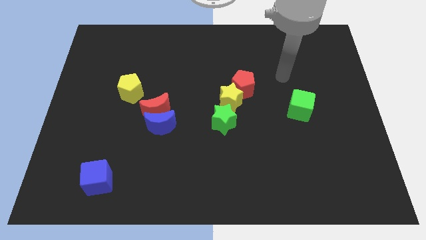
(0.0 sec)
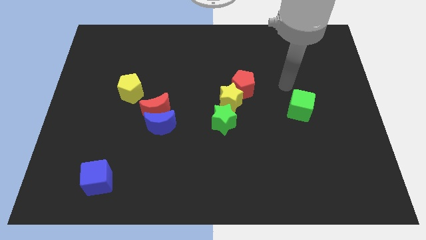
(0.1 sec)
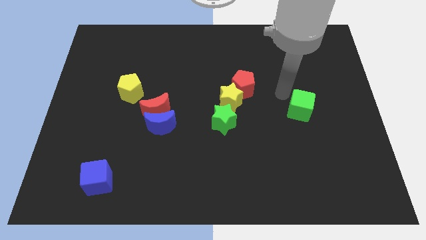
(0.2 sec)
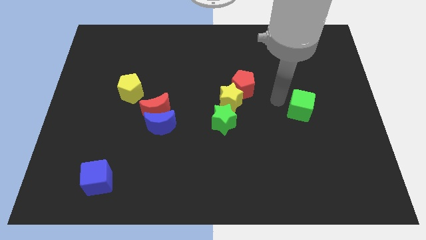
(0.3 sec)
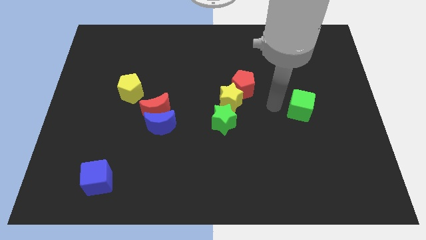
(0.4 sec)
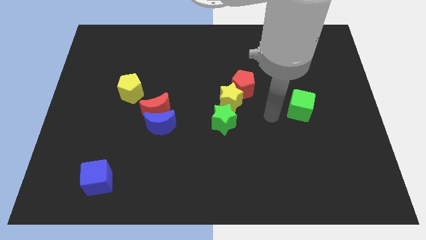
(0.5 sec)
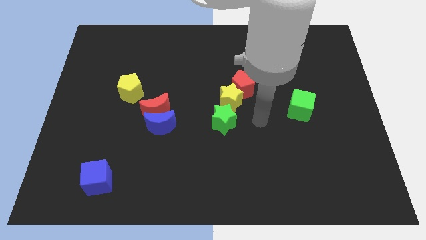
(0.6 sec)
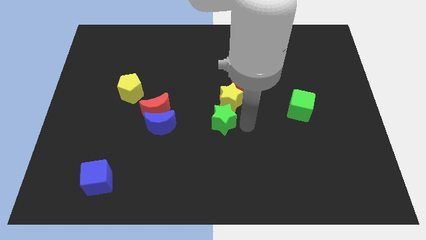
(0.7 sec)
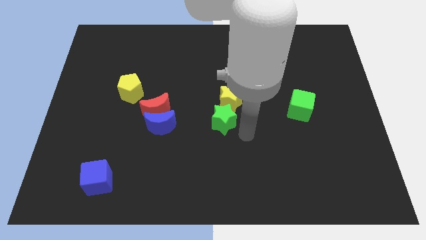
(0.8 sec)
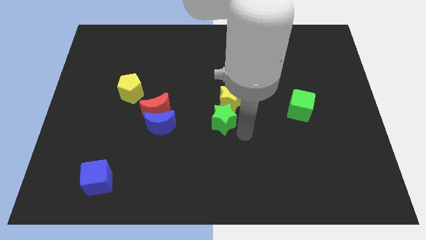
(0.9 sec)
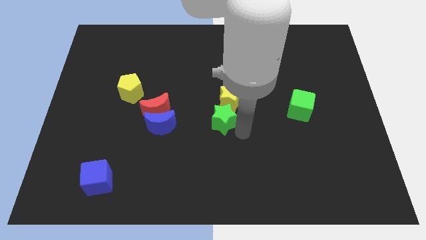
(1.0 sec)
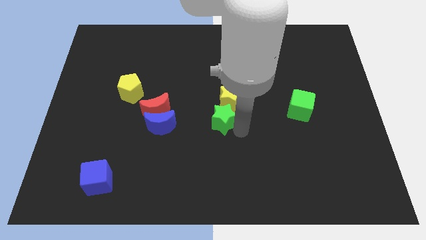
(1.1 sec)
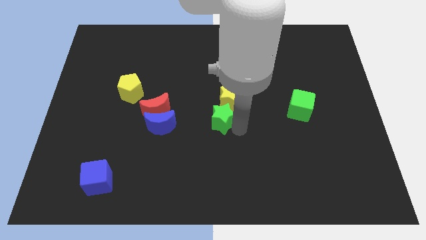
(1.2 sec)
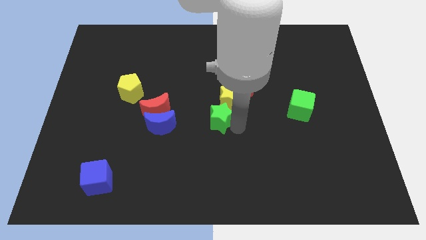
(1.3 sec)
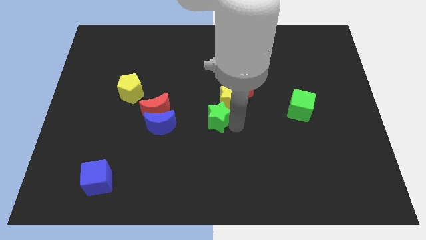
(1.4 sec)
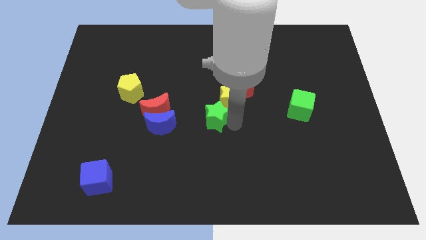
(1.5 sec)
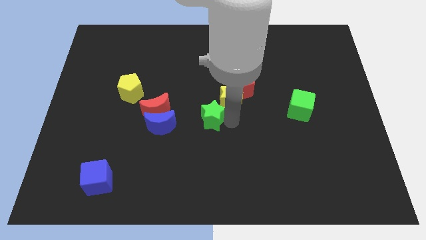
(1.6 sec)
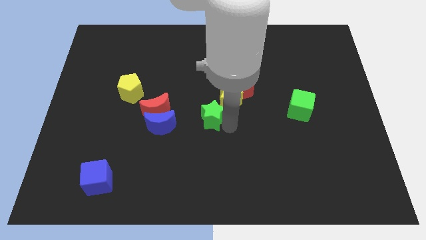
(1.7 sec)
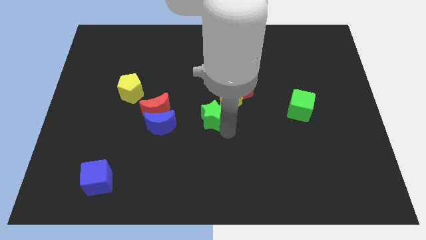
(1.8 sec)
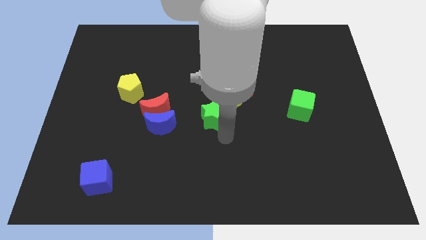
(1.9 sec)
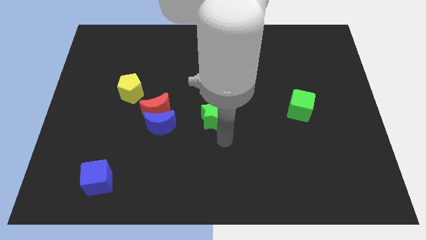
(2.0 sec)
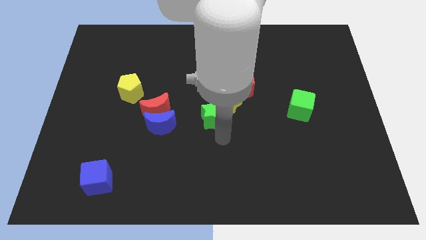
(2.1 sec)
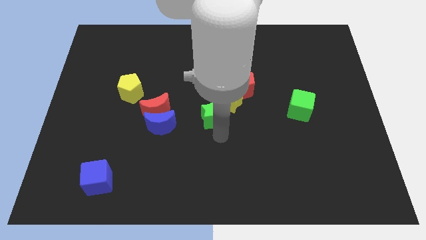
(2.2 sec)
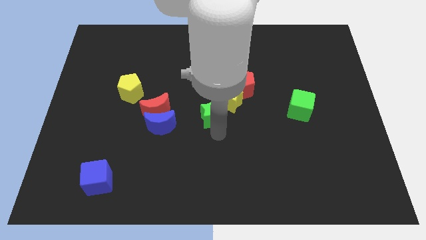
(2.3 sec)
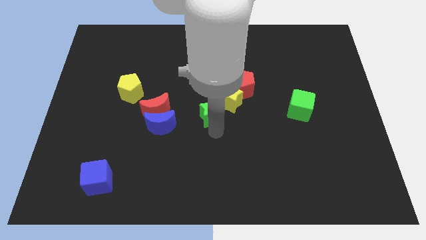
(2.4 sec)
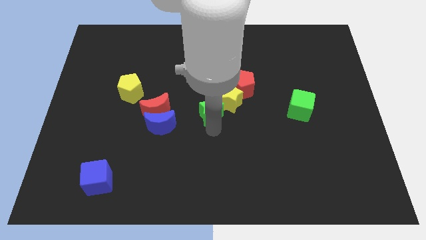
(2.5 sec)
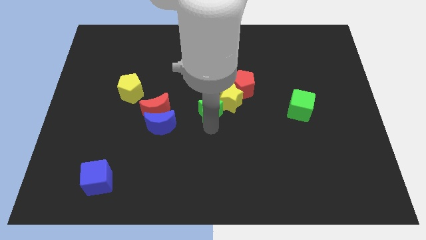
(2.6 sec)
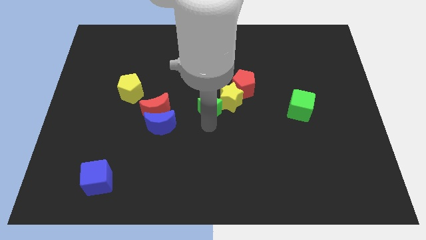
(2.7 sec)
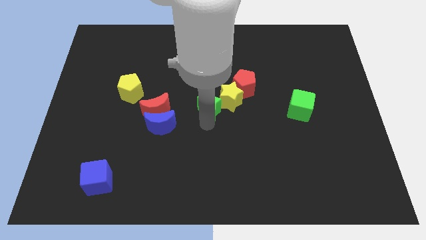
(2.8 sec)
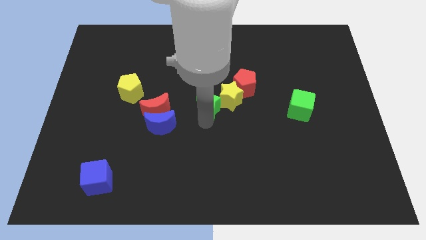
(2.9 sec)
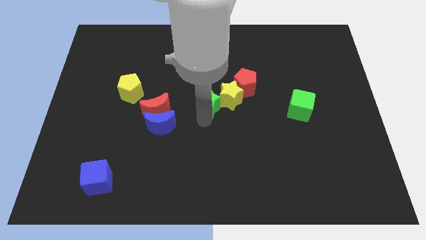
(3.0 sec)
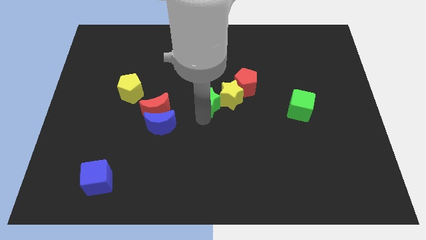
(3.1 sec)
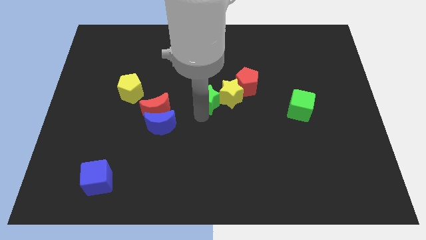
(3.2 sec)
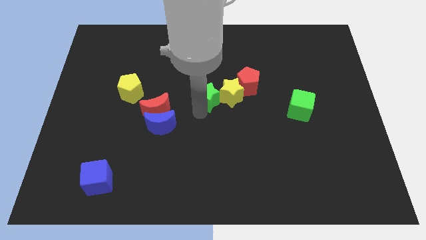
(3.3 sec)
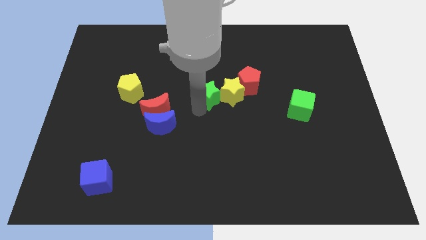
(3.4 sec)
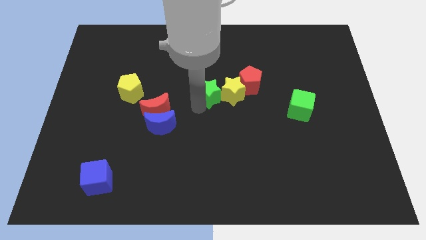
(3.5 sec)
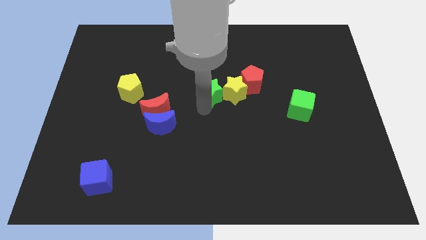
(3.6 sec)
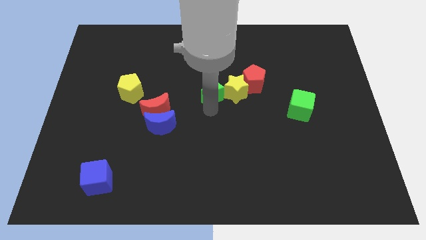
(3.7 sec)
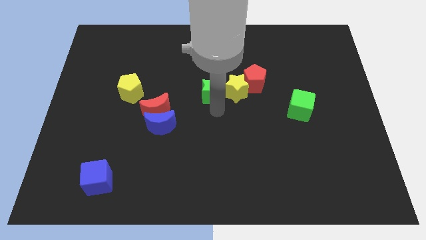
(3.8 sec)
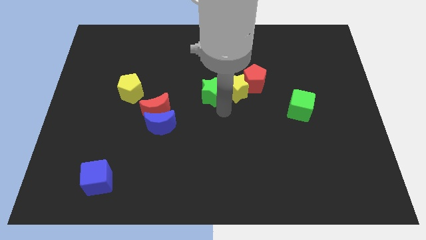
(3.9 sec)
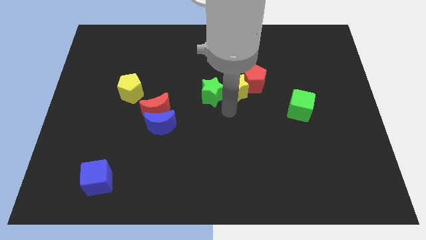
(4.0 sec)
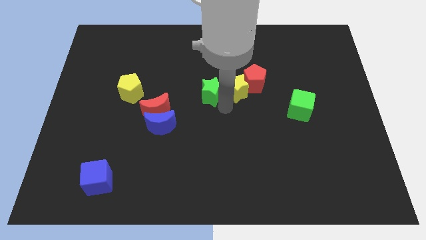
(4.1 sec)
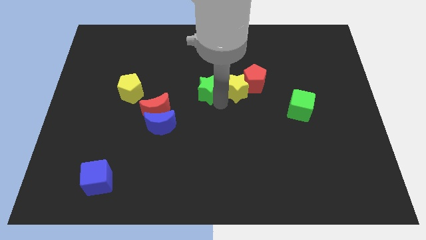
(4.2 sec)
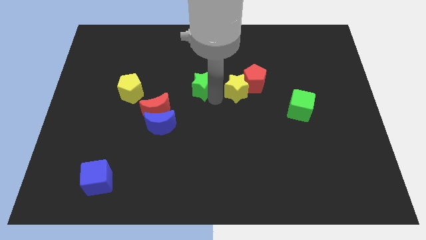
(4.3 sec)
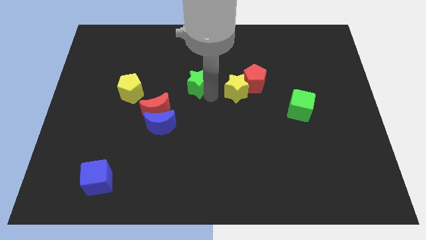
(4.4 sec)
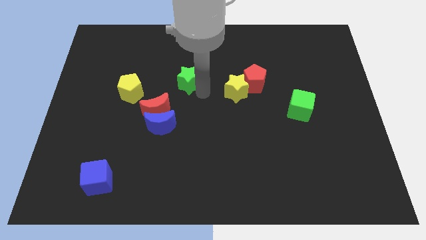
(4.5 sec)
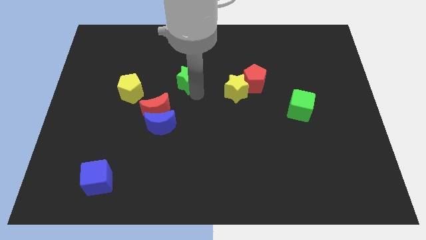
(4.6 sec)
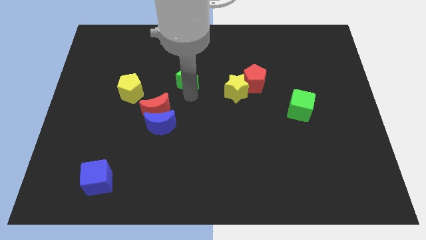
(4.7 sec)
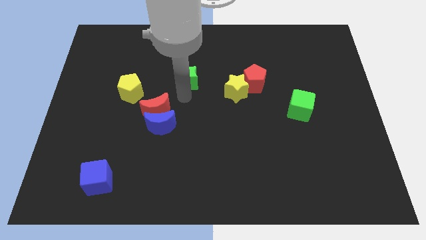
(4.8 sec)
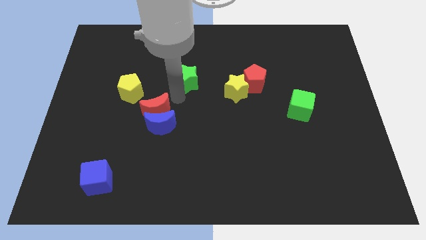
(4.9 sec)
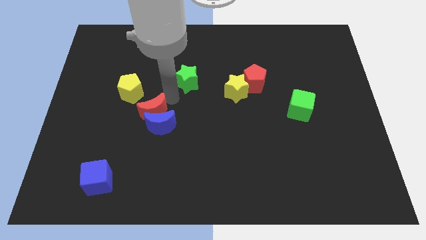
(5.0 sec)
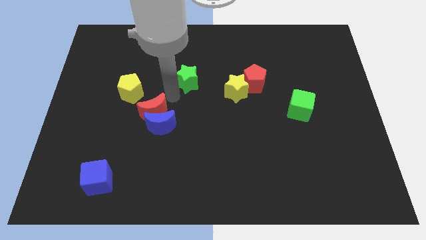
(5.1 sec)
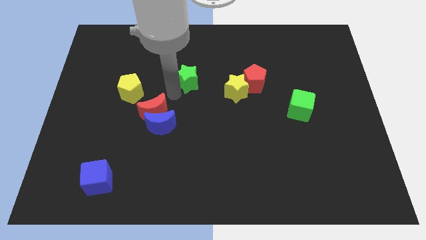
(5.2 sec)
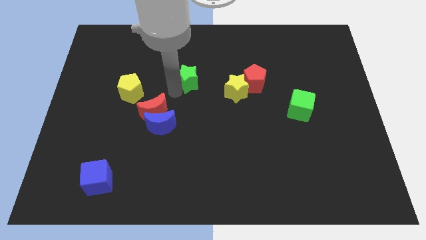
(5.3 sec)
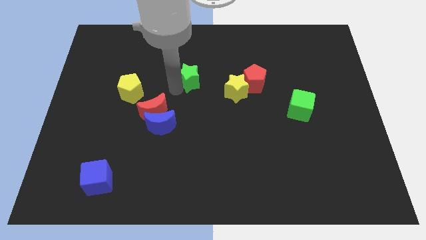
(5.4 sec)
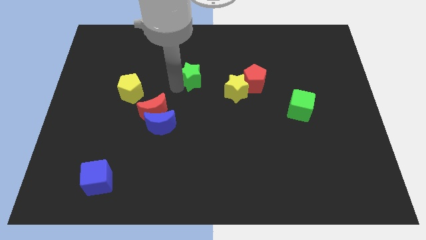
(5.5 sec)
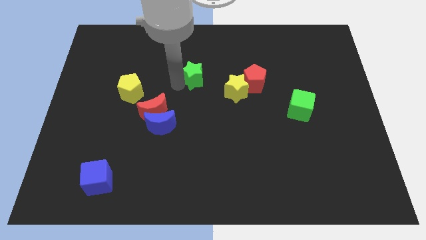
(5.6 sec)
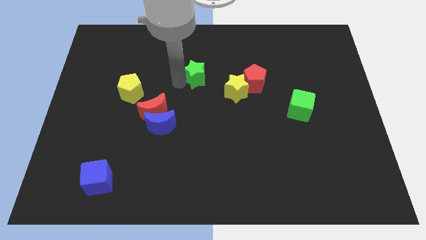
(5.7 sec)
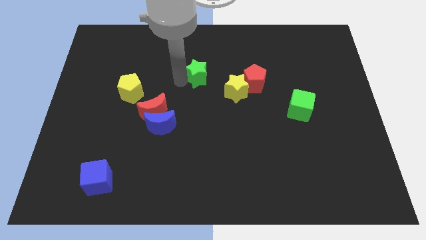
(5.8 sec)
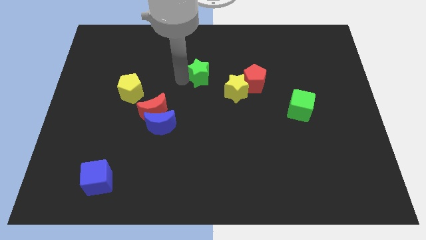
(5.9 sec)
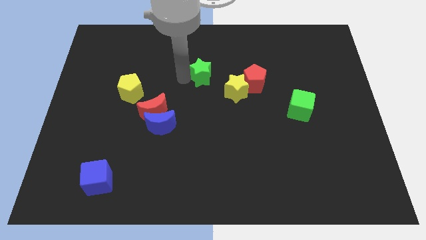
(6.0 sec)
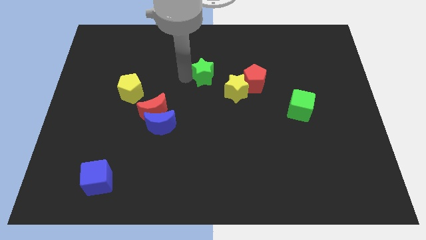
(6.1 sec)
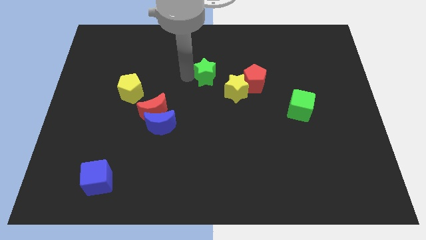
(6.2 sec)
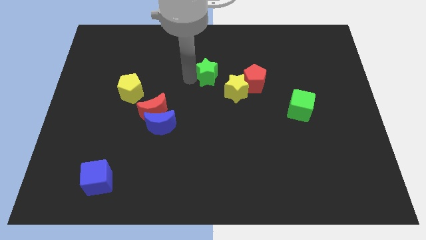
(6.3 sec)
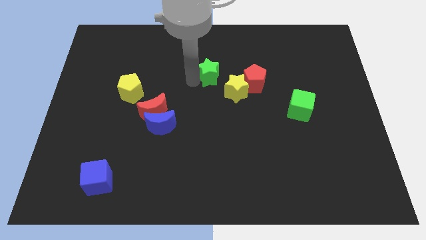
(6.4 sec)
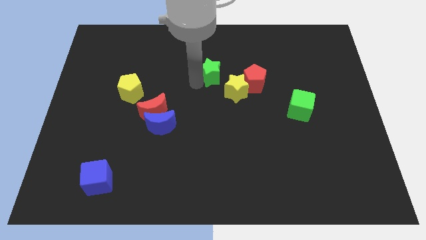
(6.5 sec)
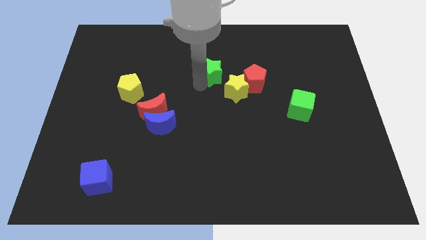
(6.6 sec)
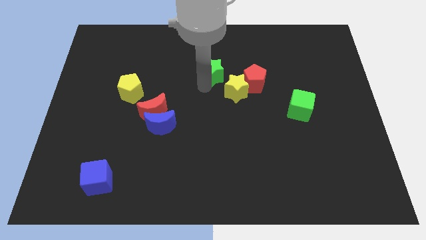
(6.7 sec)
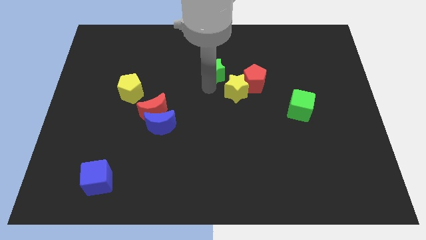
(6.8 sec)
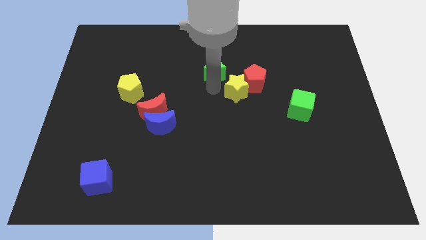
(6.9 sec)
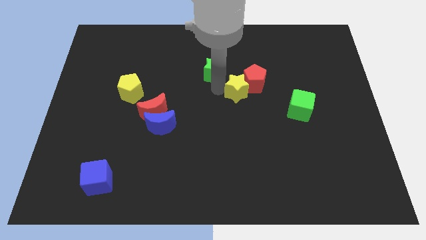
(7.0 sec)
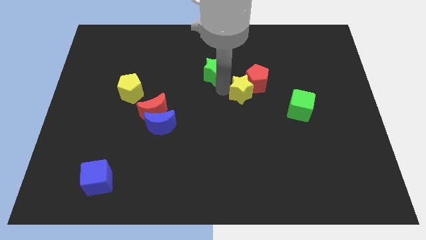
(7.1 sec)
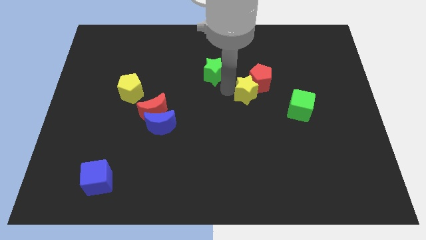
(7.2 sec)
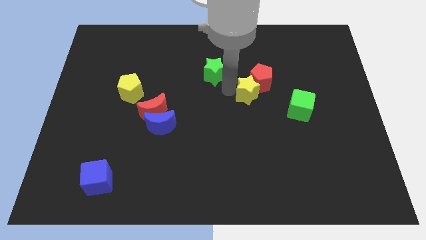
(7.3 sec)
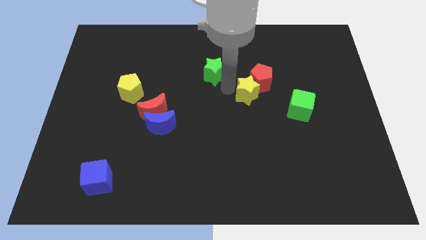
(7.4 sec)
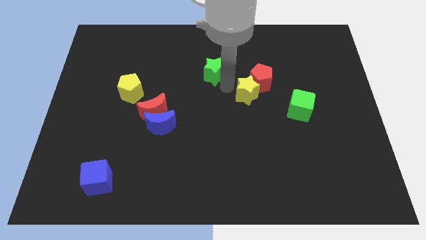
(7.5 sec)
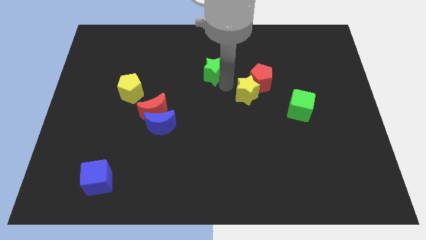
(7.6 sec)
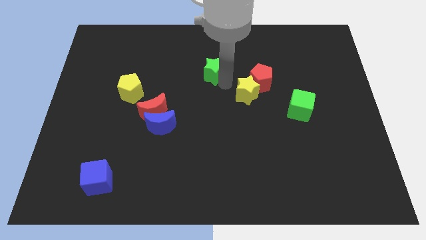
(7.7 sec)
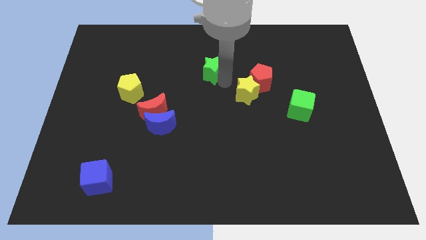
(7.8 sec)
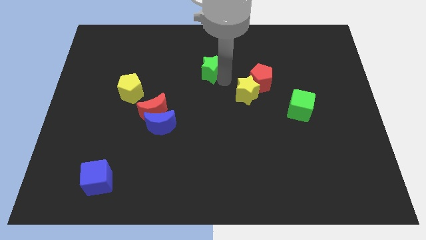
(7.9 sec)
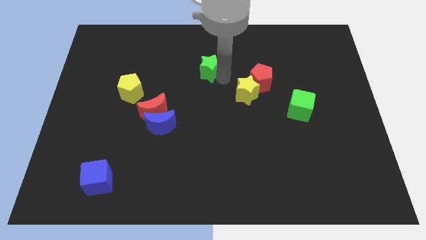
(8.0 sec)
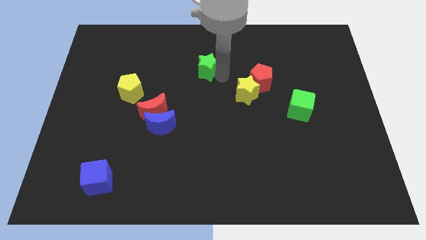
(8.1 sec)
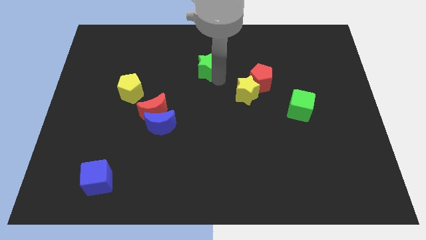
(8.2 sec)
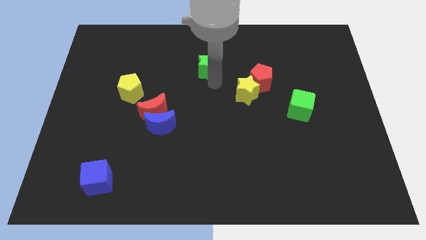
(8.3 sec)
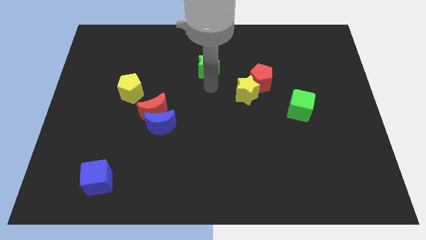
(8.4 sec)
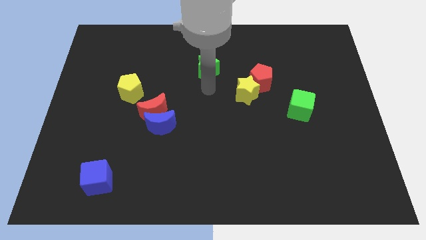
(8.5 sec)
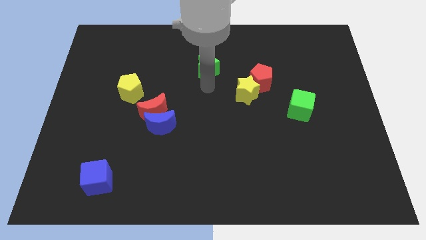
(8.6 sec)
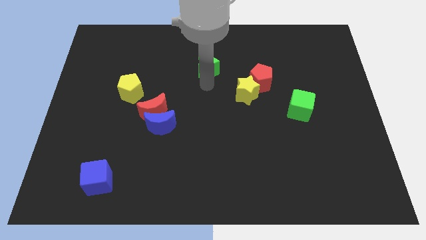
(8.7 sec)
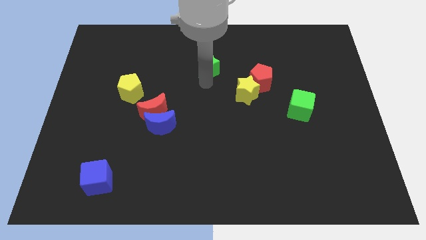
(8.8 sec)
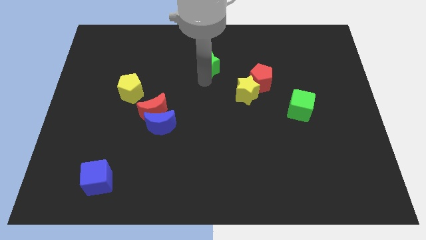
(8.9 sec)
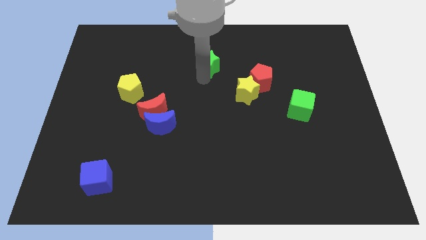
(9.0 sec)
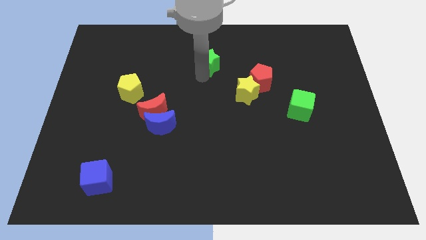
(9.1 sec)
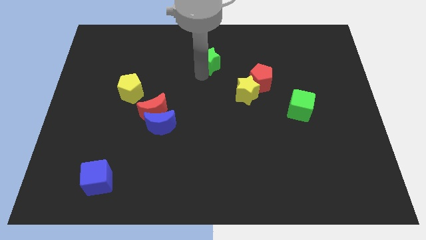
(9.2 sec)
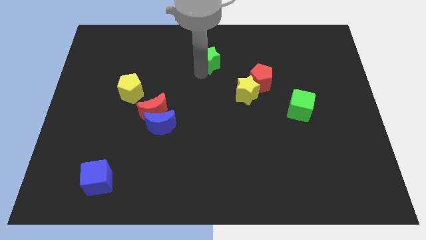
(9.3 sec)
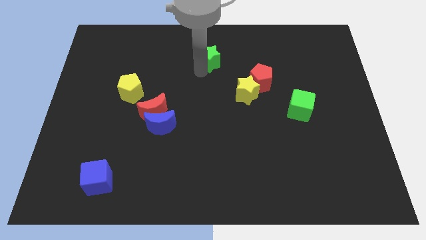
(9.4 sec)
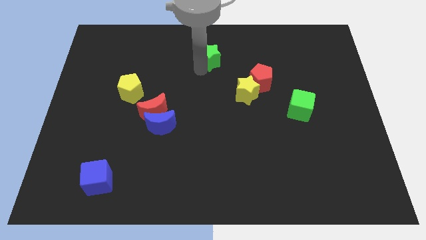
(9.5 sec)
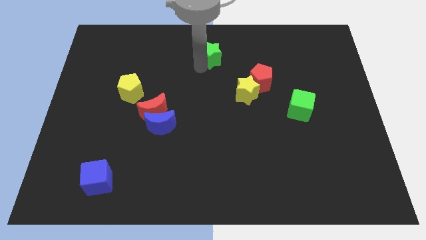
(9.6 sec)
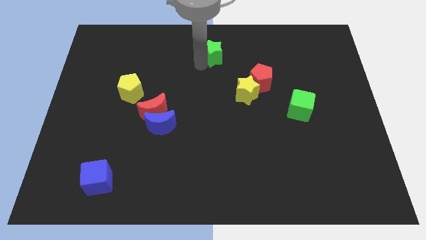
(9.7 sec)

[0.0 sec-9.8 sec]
push the green star to the top
